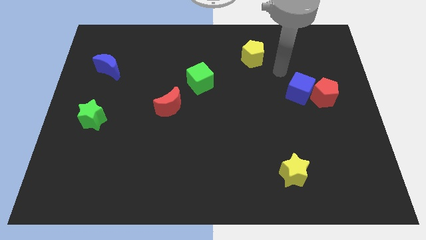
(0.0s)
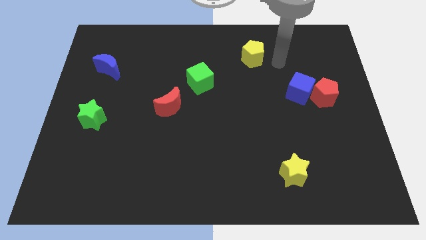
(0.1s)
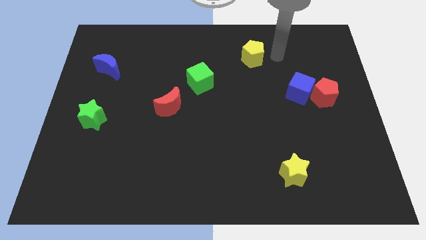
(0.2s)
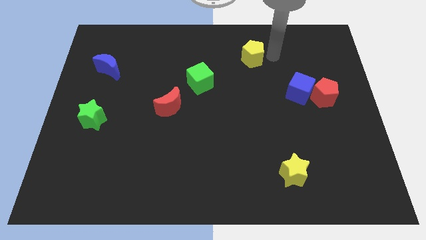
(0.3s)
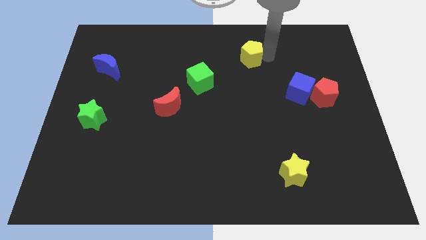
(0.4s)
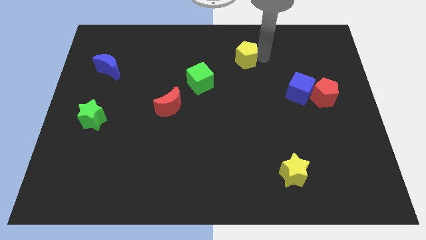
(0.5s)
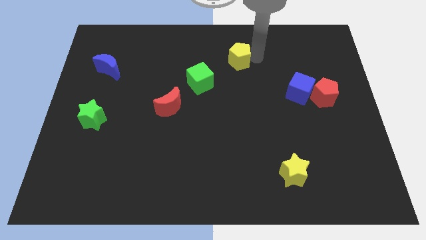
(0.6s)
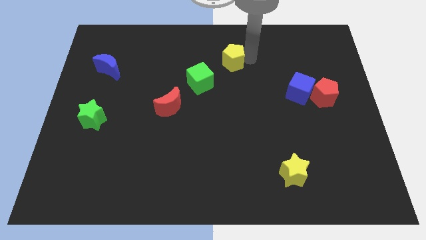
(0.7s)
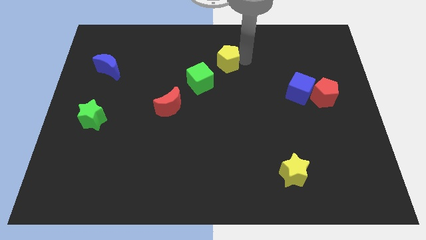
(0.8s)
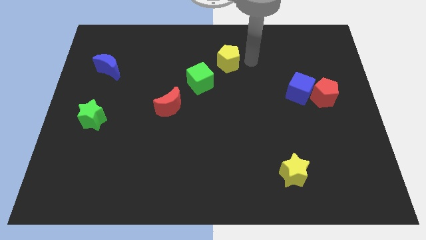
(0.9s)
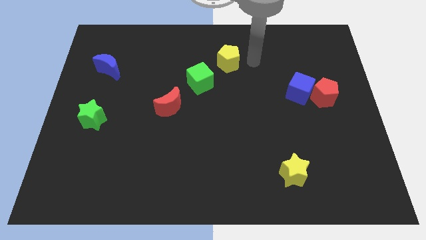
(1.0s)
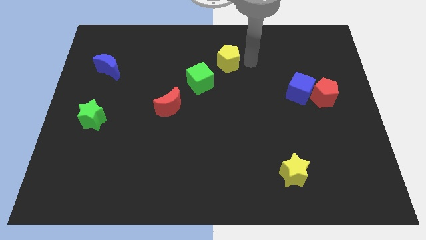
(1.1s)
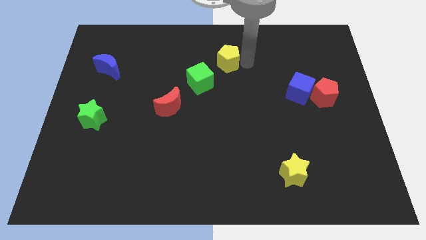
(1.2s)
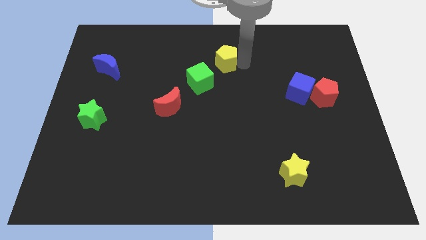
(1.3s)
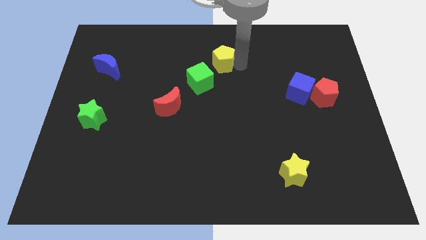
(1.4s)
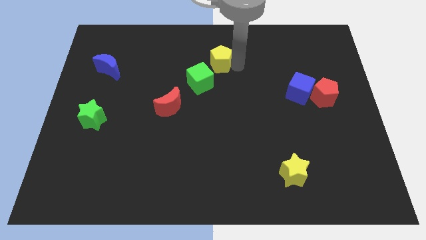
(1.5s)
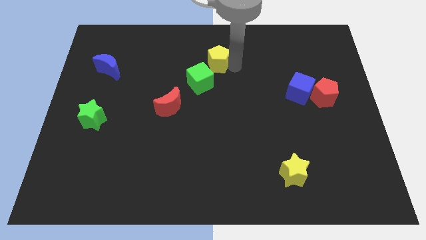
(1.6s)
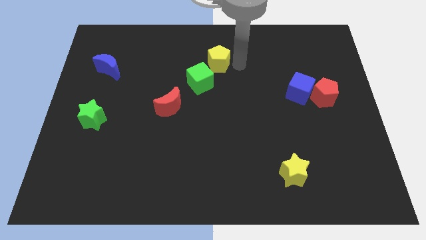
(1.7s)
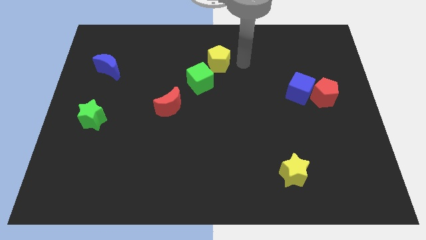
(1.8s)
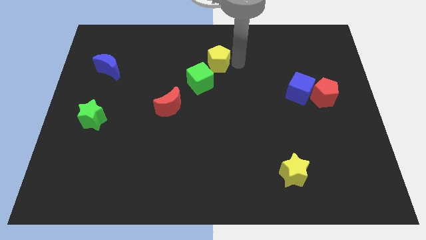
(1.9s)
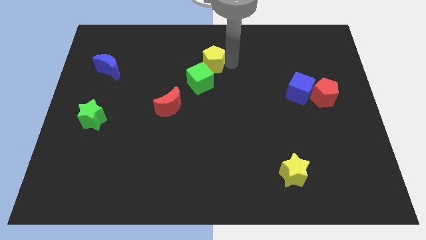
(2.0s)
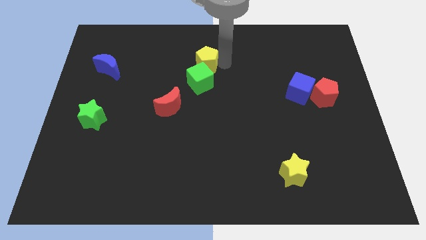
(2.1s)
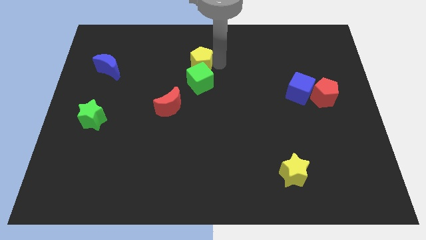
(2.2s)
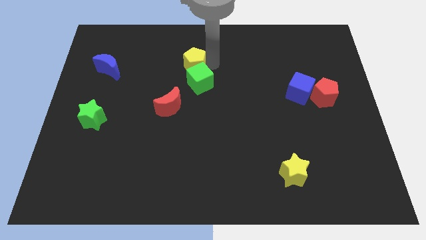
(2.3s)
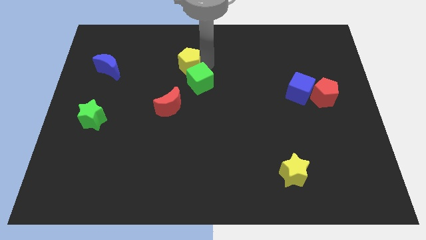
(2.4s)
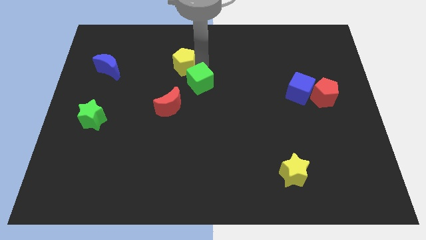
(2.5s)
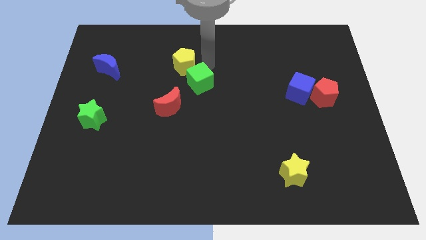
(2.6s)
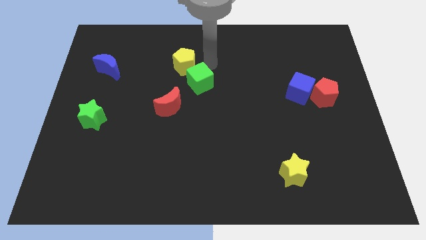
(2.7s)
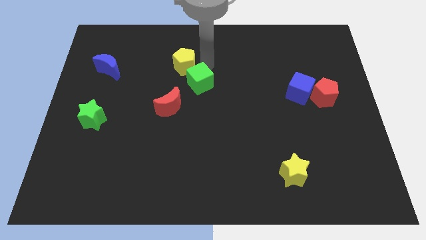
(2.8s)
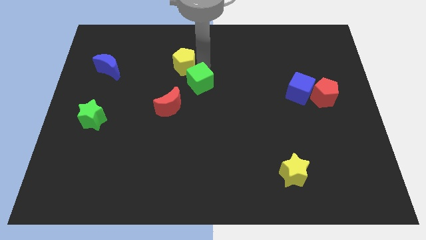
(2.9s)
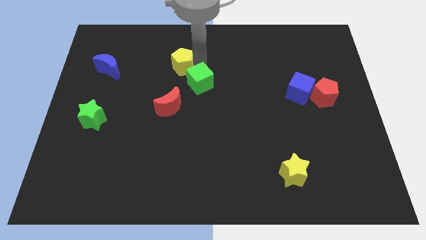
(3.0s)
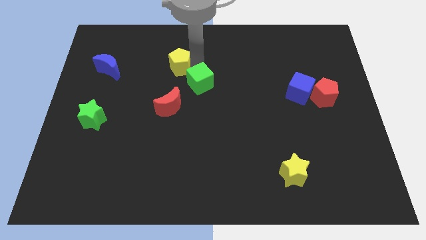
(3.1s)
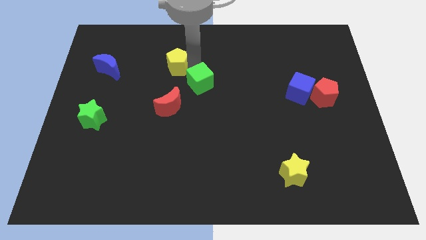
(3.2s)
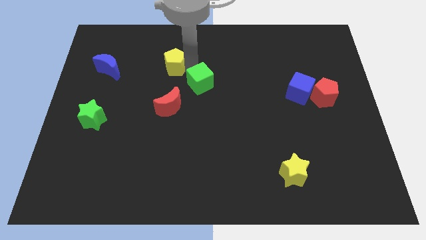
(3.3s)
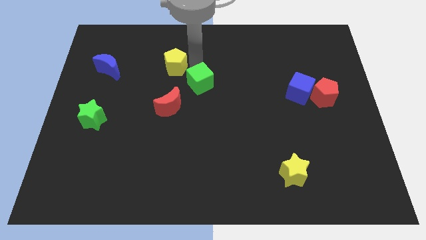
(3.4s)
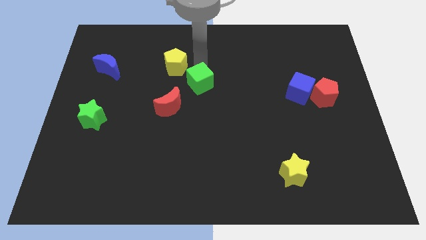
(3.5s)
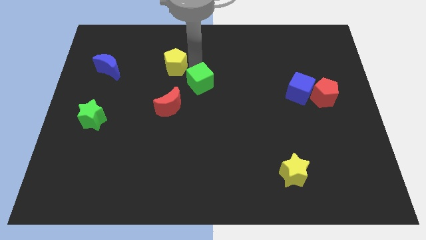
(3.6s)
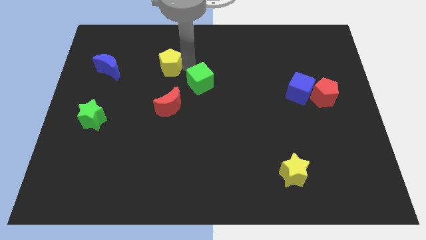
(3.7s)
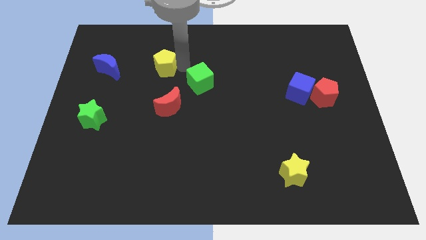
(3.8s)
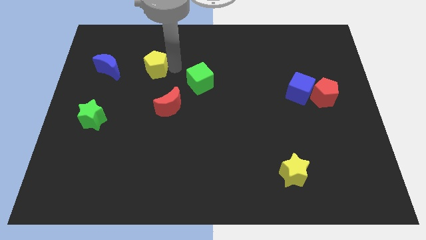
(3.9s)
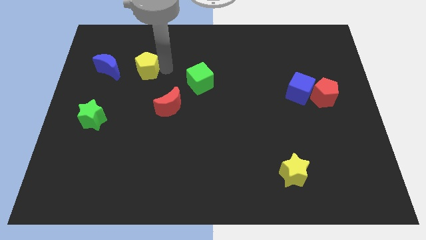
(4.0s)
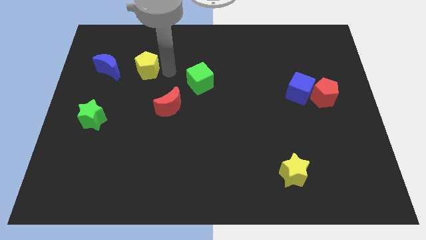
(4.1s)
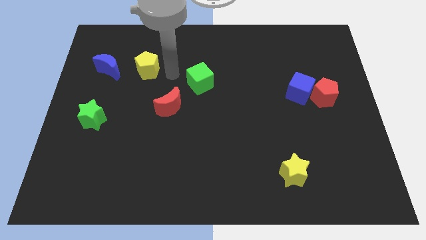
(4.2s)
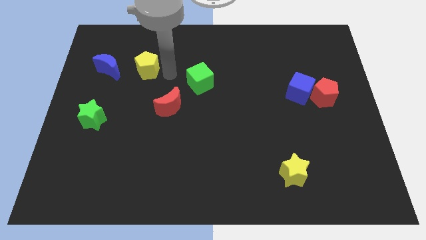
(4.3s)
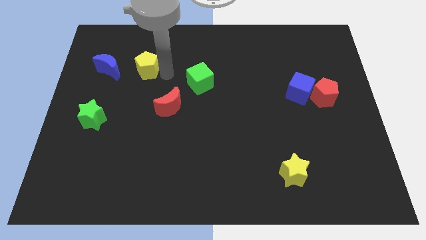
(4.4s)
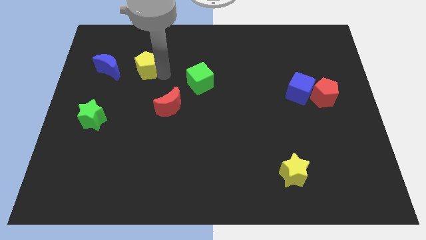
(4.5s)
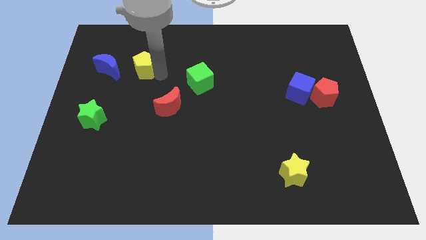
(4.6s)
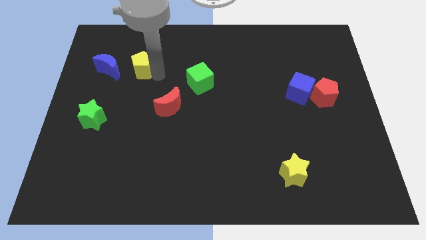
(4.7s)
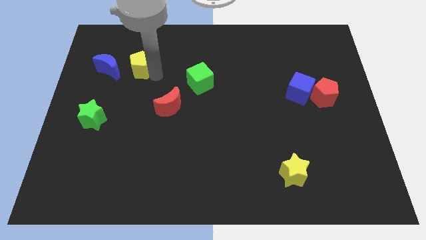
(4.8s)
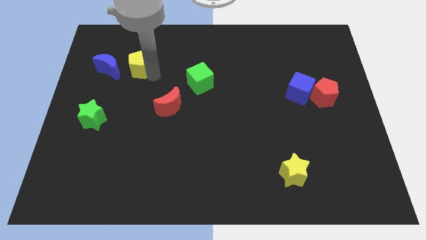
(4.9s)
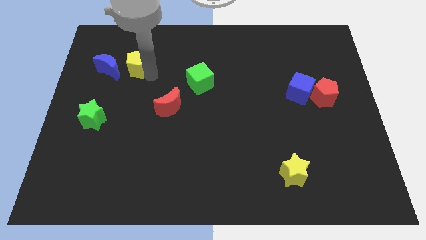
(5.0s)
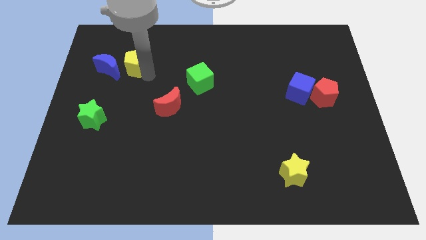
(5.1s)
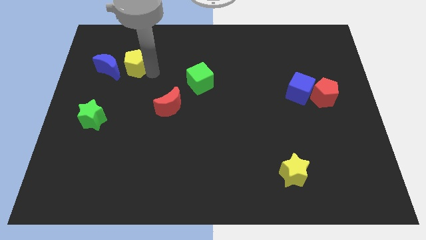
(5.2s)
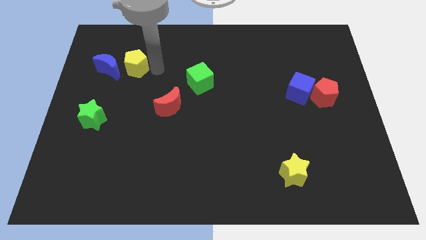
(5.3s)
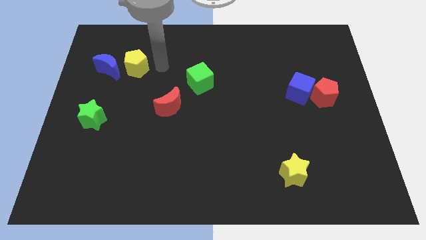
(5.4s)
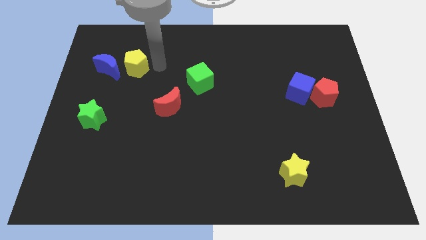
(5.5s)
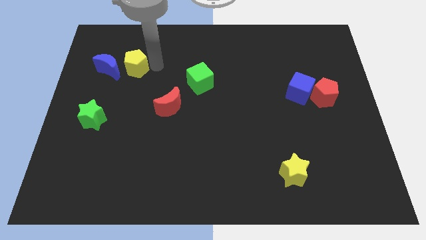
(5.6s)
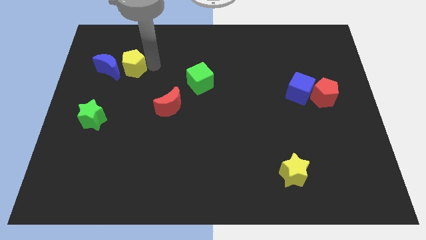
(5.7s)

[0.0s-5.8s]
push the yellow pentagon to the blue moon

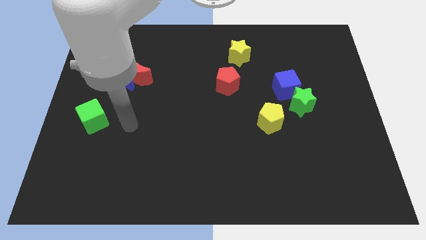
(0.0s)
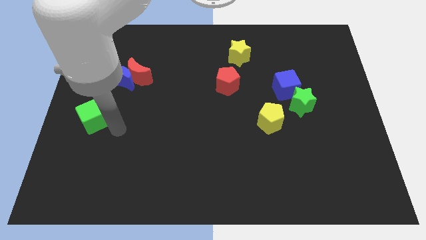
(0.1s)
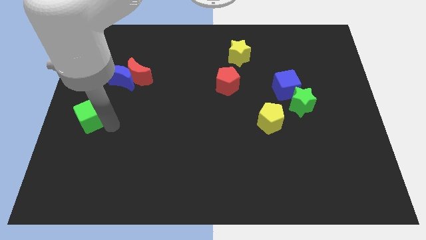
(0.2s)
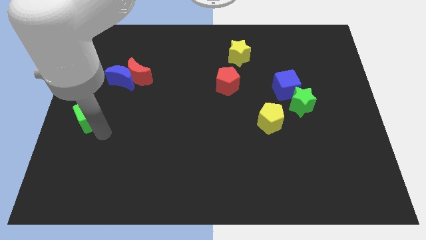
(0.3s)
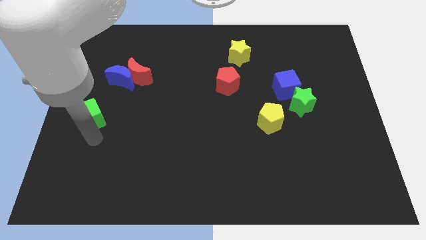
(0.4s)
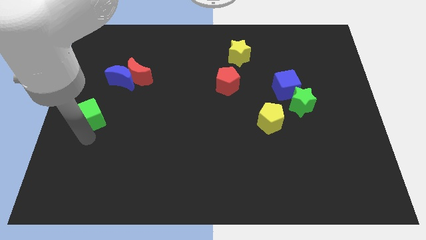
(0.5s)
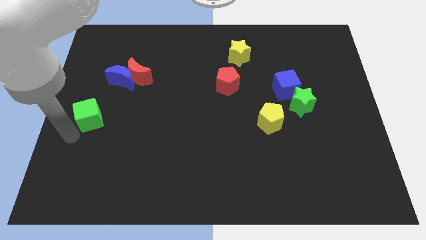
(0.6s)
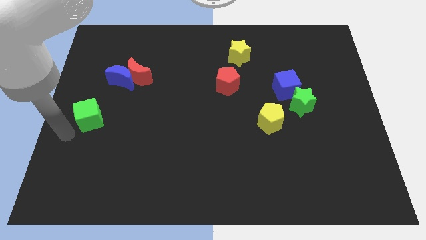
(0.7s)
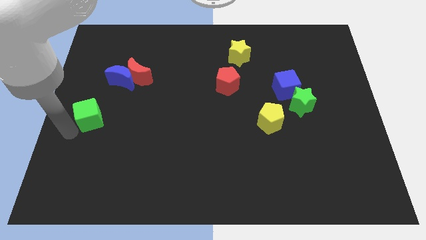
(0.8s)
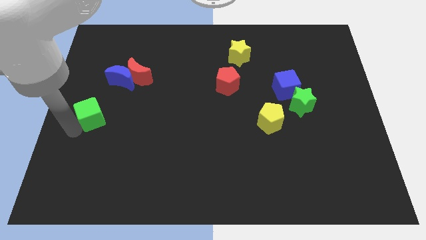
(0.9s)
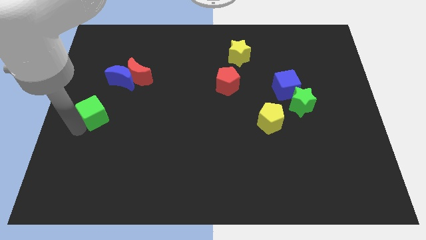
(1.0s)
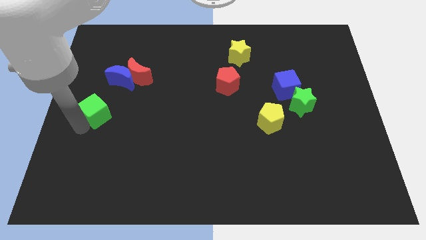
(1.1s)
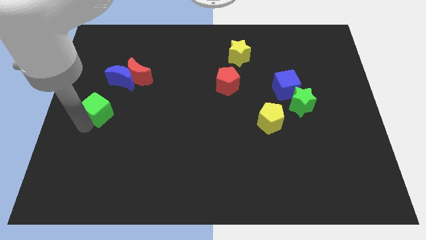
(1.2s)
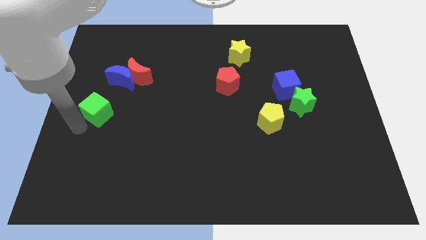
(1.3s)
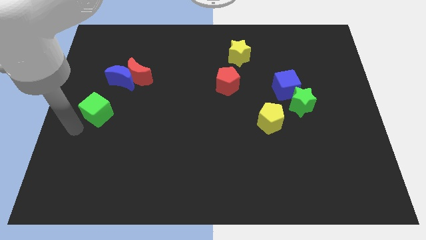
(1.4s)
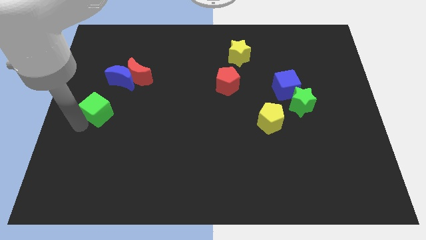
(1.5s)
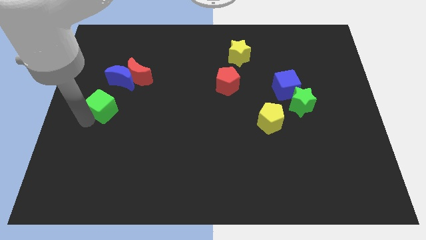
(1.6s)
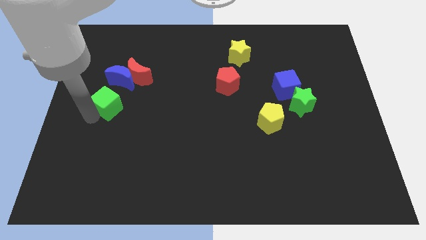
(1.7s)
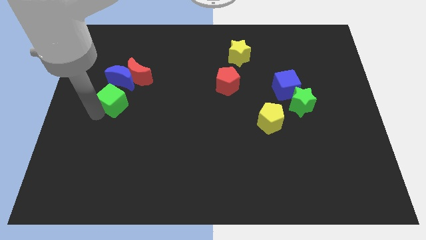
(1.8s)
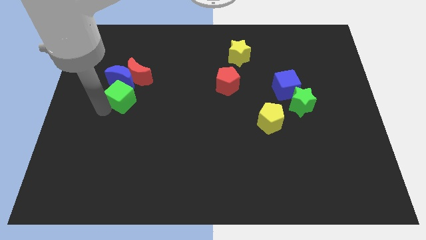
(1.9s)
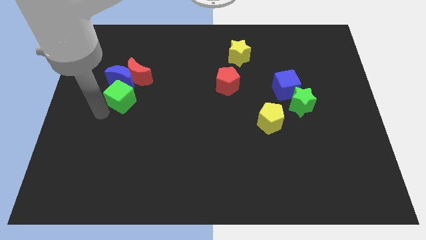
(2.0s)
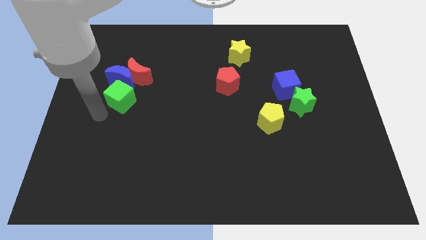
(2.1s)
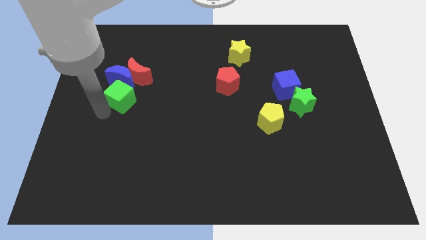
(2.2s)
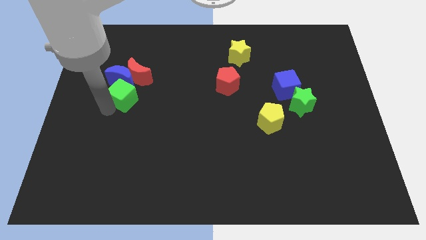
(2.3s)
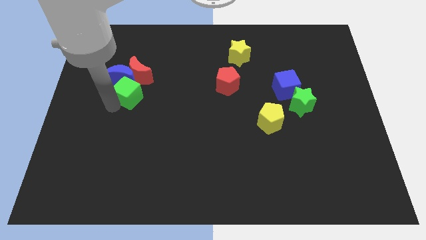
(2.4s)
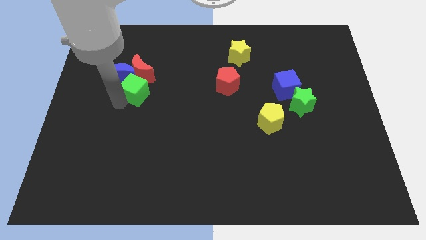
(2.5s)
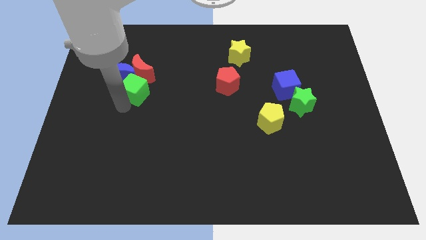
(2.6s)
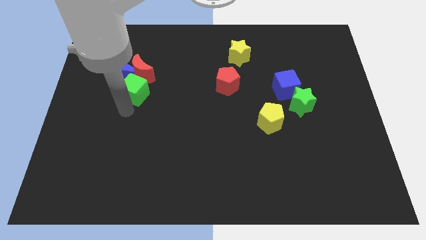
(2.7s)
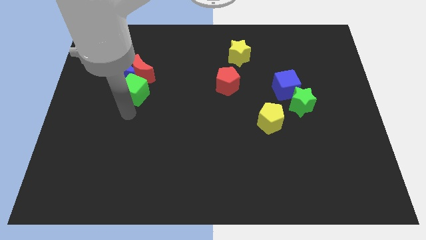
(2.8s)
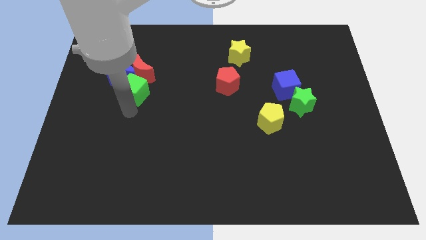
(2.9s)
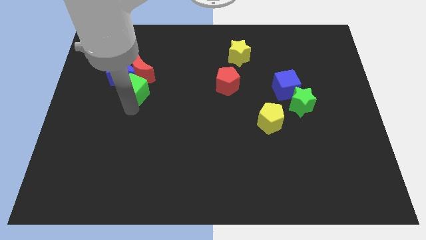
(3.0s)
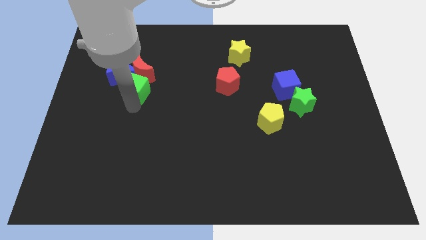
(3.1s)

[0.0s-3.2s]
slide the green cube to the red moon
